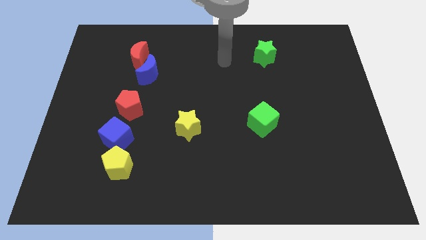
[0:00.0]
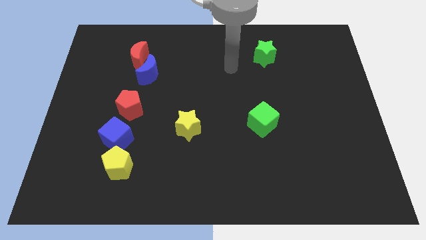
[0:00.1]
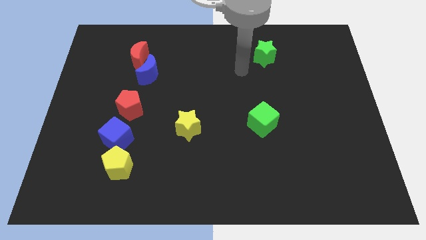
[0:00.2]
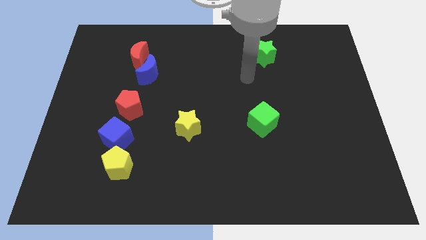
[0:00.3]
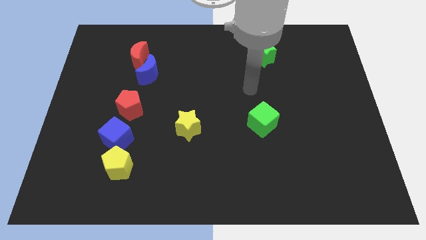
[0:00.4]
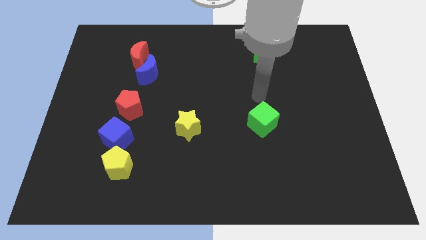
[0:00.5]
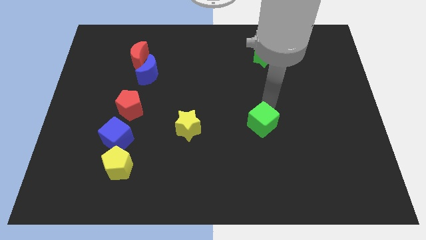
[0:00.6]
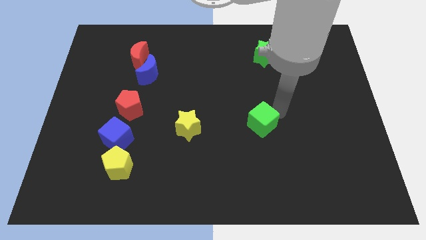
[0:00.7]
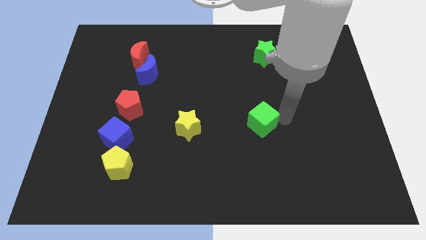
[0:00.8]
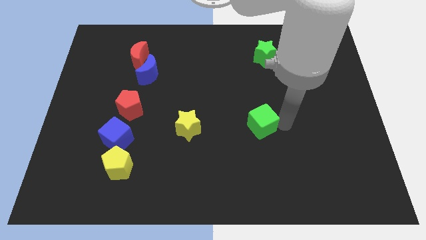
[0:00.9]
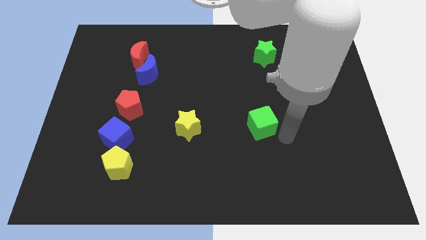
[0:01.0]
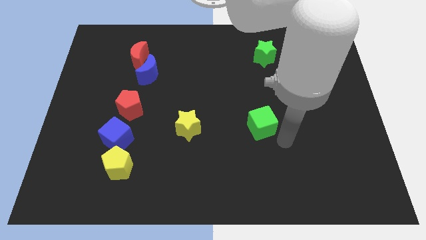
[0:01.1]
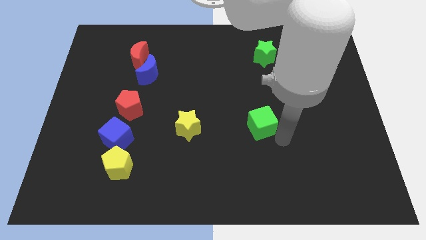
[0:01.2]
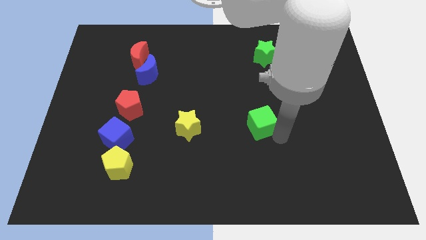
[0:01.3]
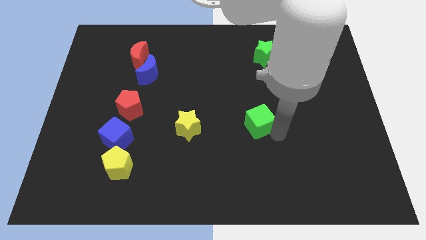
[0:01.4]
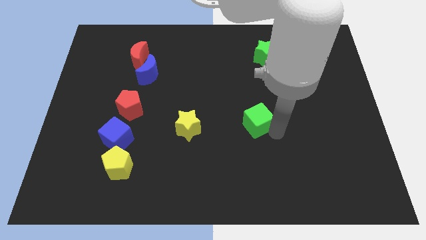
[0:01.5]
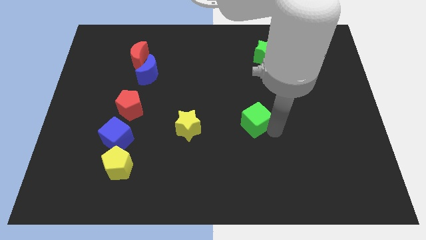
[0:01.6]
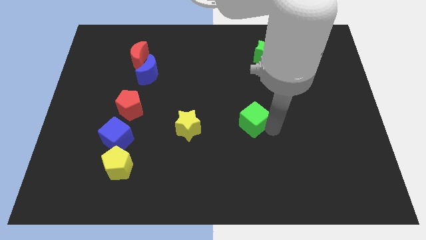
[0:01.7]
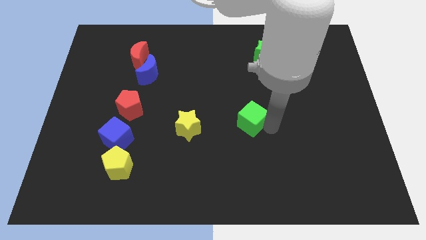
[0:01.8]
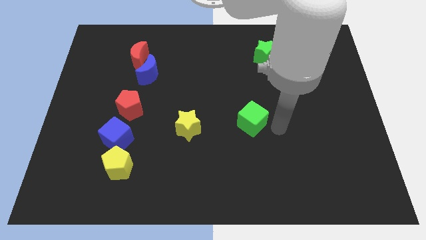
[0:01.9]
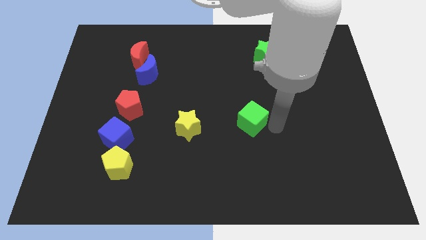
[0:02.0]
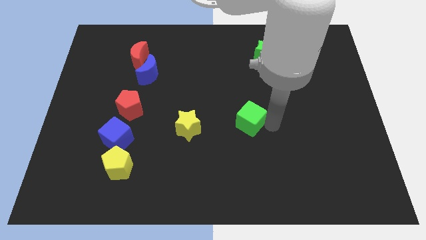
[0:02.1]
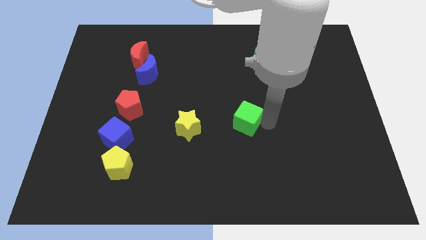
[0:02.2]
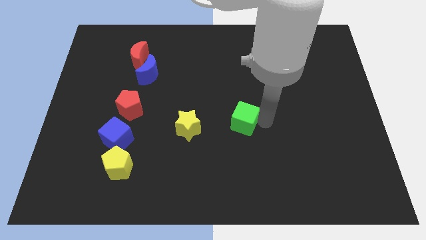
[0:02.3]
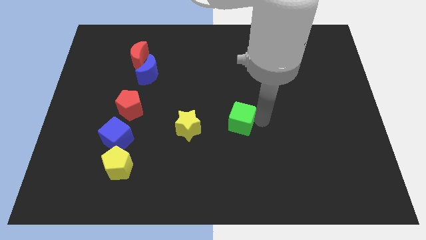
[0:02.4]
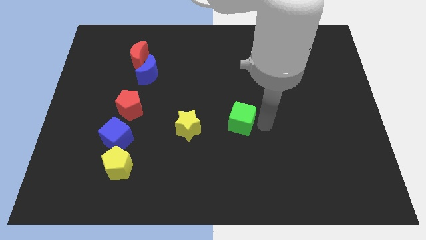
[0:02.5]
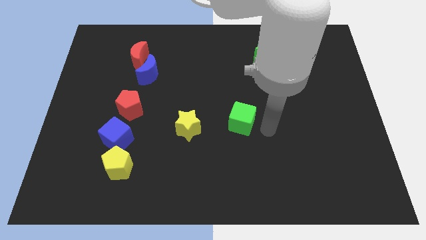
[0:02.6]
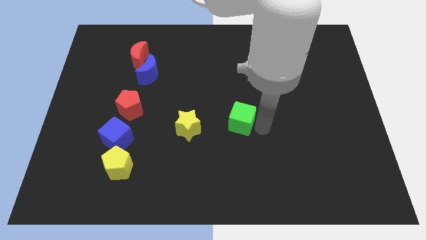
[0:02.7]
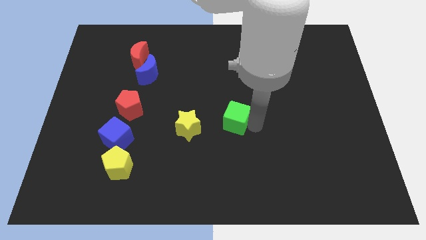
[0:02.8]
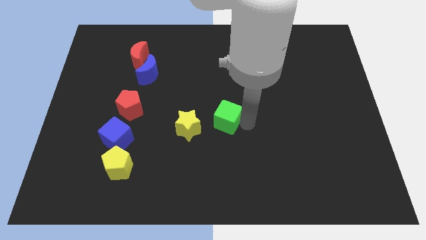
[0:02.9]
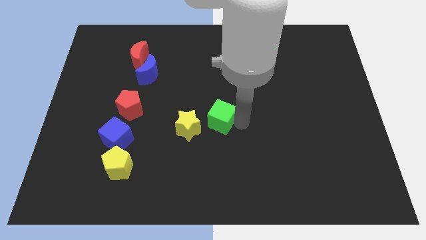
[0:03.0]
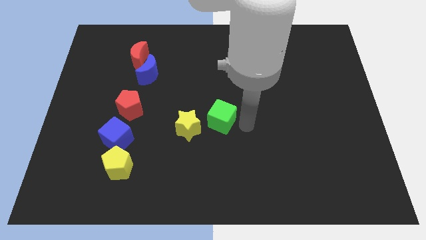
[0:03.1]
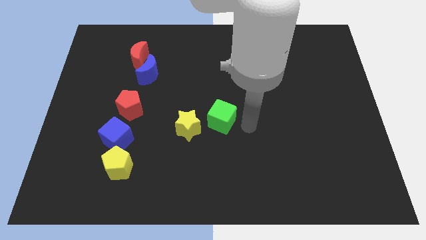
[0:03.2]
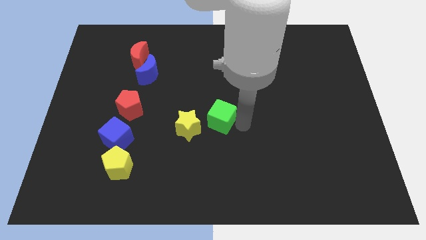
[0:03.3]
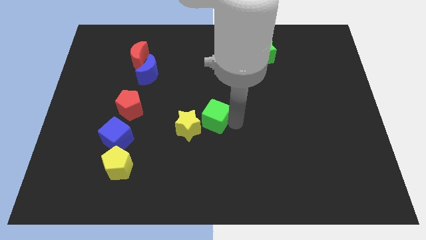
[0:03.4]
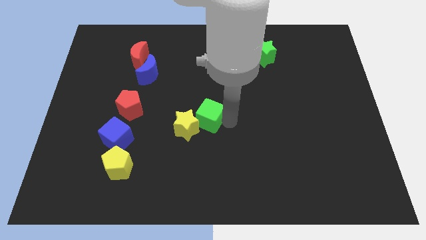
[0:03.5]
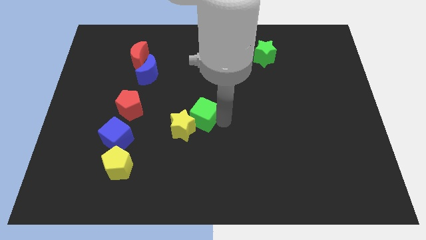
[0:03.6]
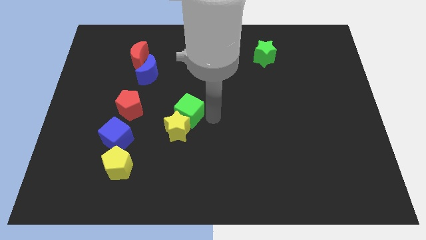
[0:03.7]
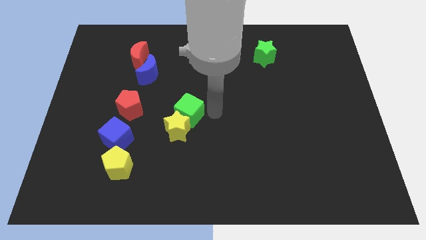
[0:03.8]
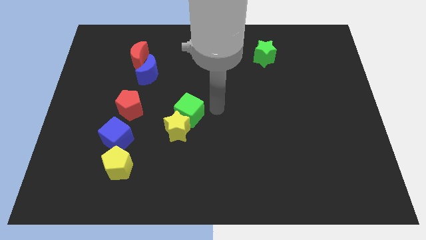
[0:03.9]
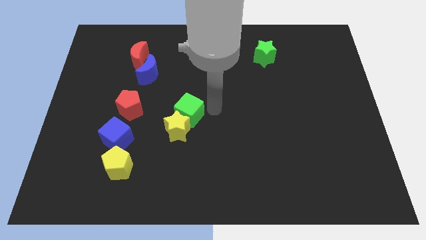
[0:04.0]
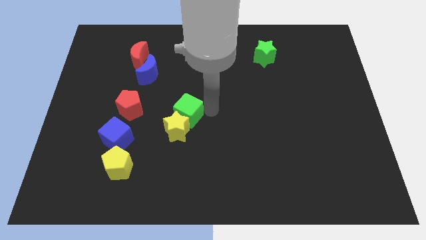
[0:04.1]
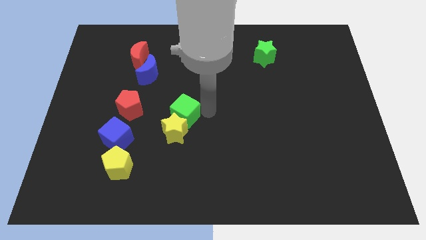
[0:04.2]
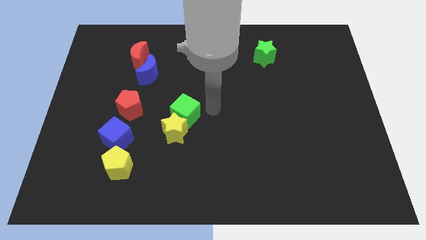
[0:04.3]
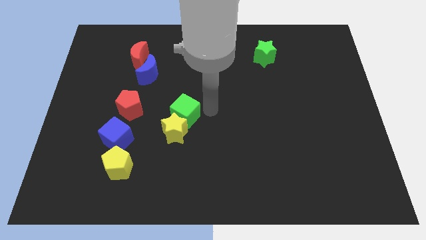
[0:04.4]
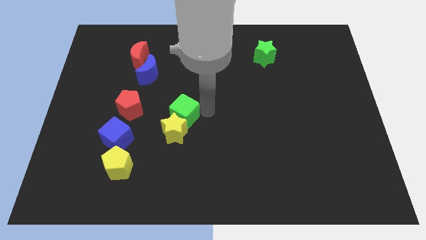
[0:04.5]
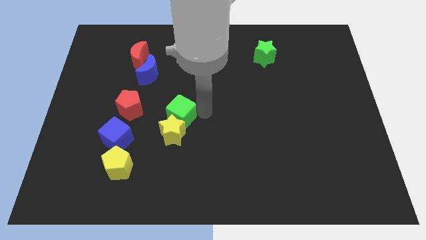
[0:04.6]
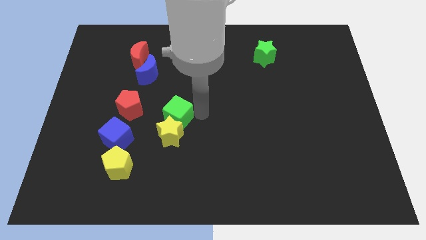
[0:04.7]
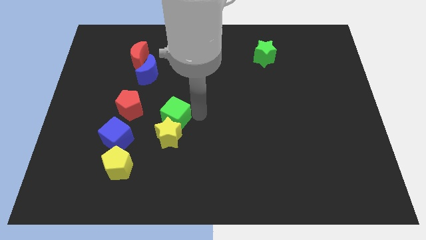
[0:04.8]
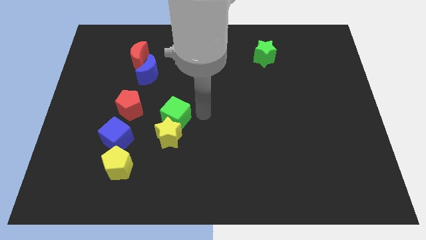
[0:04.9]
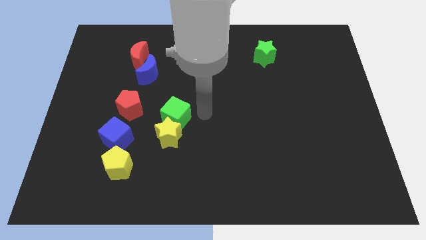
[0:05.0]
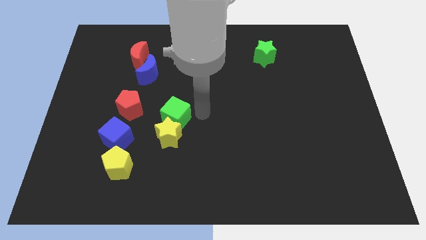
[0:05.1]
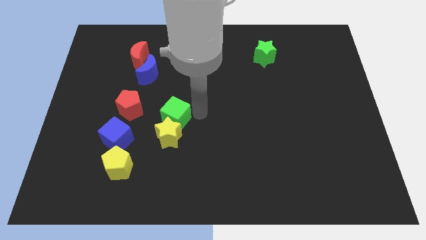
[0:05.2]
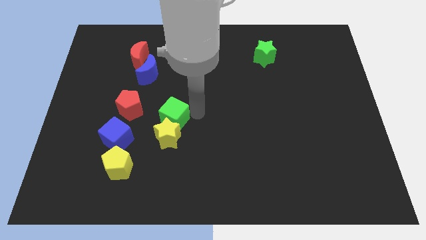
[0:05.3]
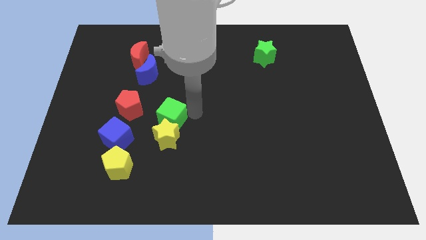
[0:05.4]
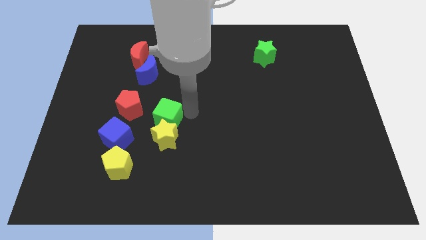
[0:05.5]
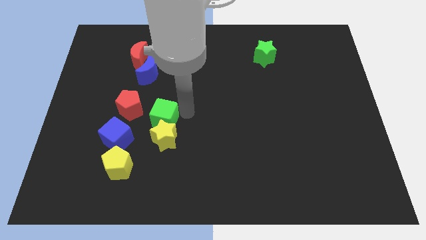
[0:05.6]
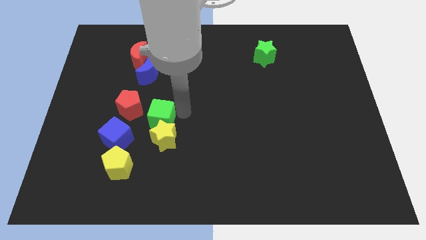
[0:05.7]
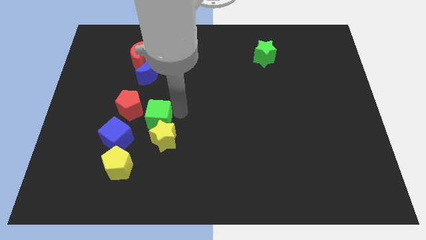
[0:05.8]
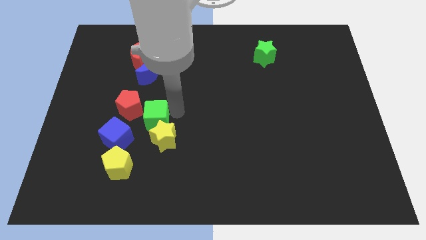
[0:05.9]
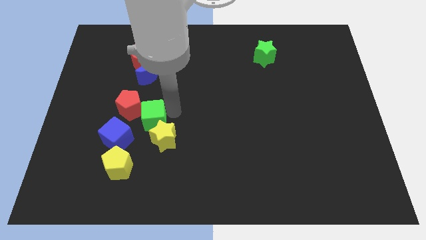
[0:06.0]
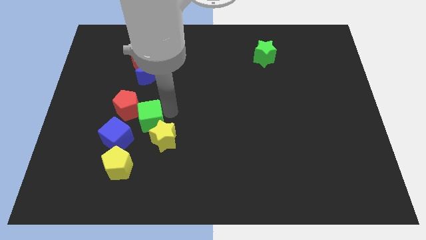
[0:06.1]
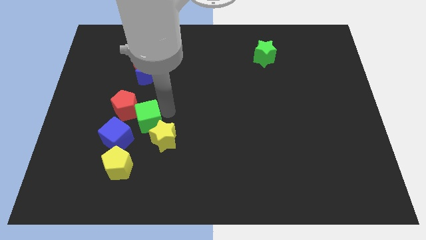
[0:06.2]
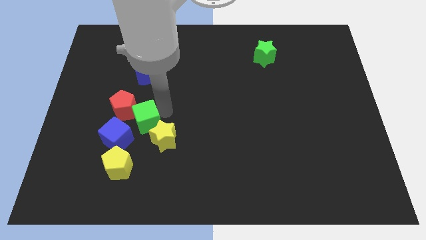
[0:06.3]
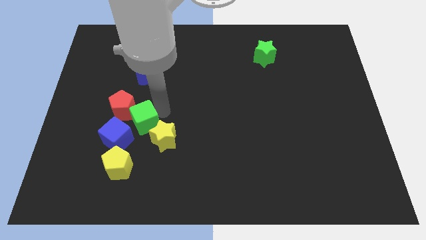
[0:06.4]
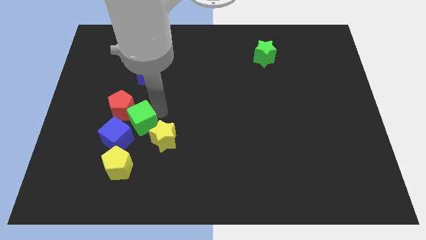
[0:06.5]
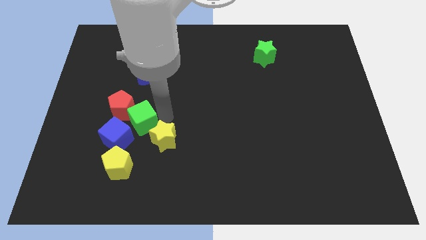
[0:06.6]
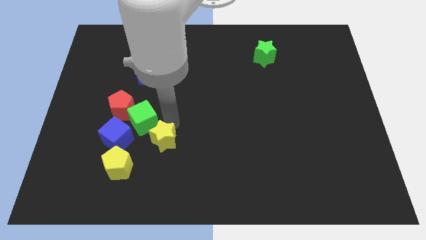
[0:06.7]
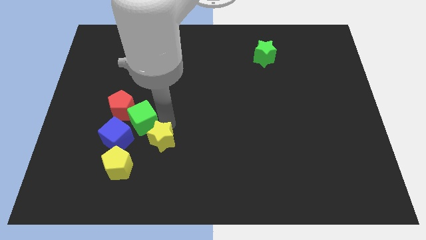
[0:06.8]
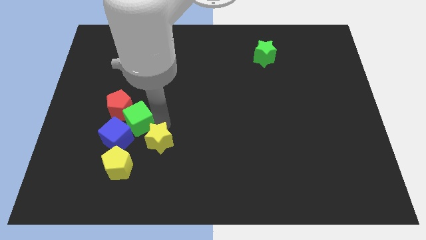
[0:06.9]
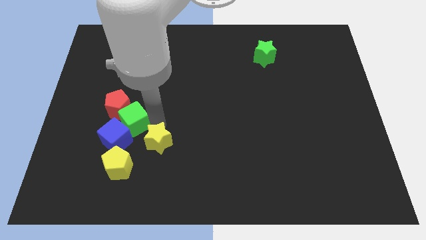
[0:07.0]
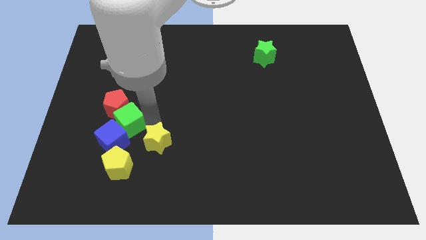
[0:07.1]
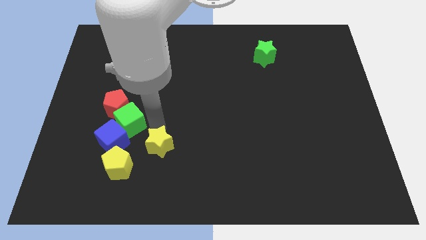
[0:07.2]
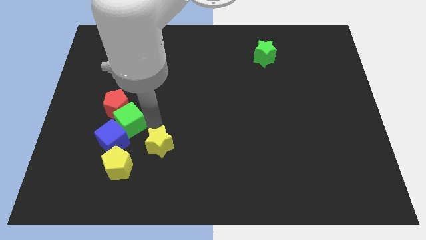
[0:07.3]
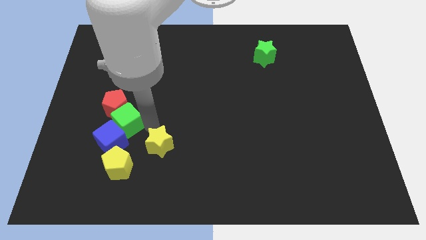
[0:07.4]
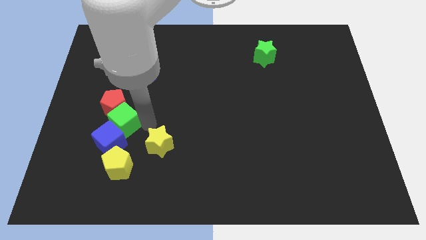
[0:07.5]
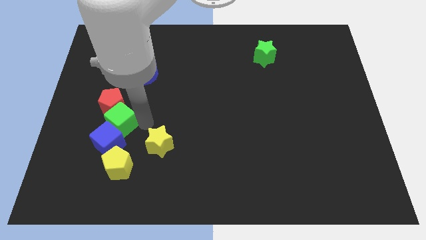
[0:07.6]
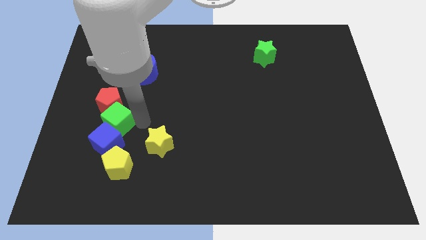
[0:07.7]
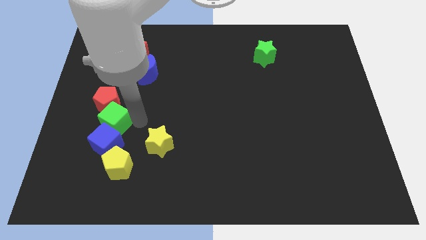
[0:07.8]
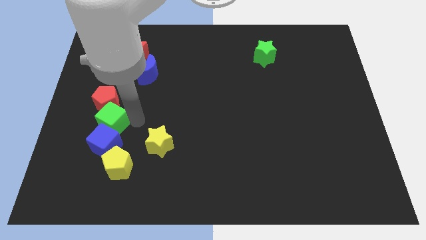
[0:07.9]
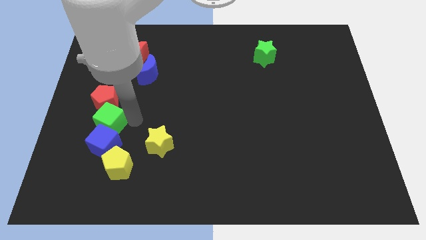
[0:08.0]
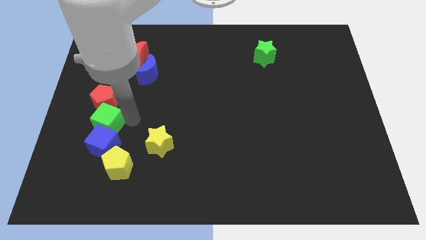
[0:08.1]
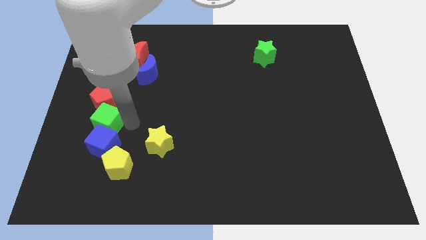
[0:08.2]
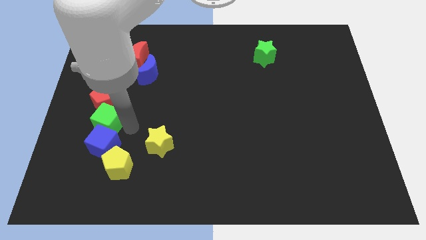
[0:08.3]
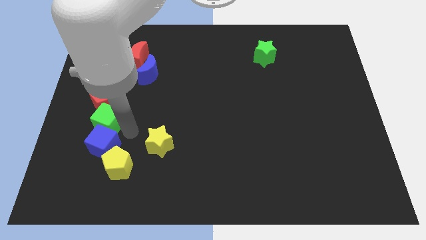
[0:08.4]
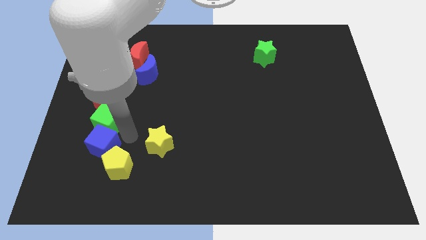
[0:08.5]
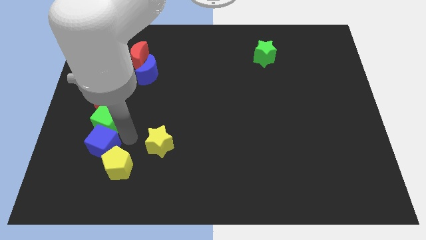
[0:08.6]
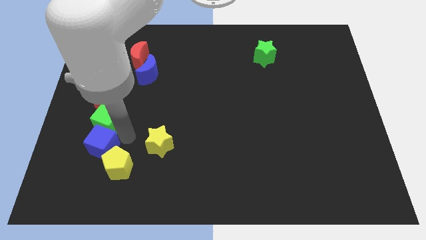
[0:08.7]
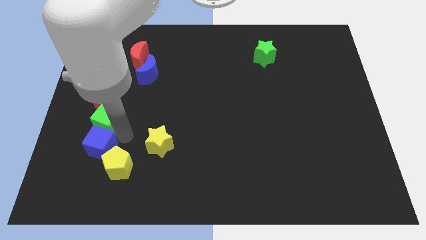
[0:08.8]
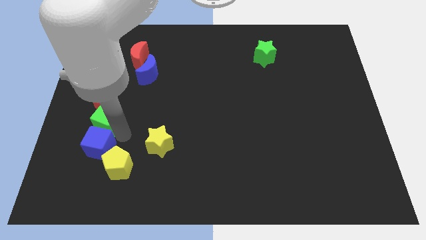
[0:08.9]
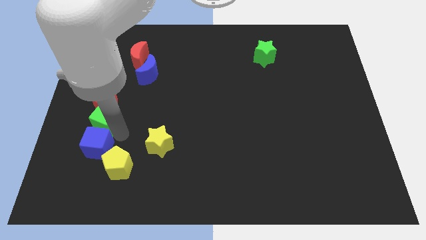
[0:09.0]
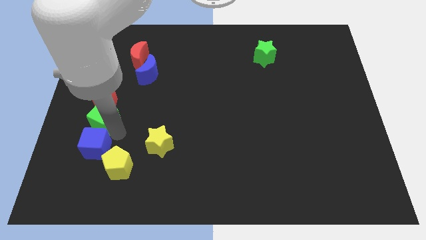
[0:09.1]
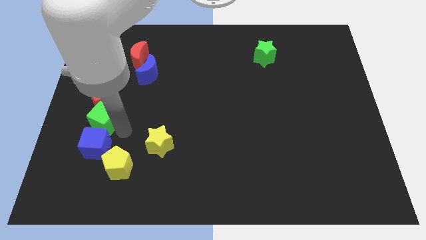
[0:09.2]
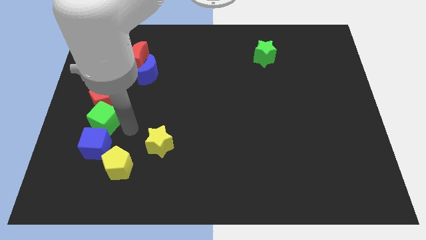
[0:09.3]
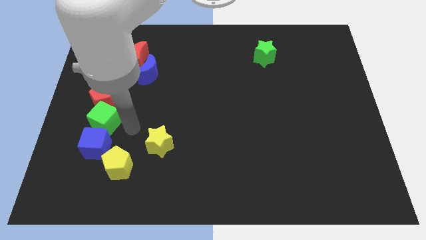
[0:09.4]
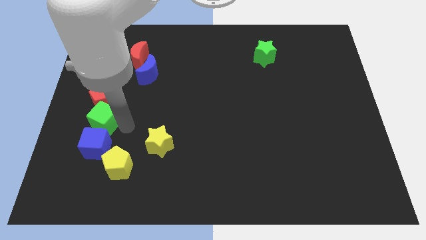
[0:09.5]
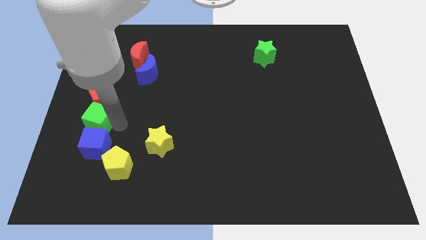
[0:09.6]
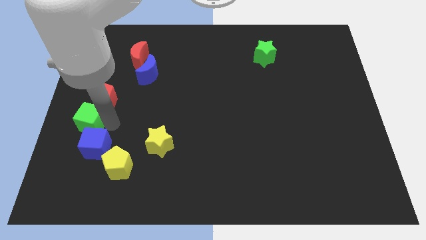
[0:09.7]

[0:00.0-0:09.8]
move the green cube to the left side of the board
